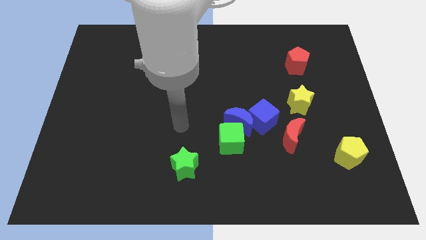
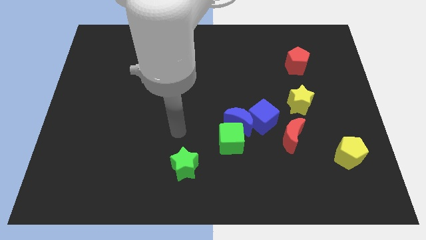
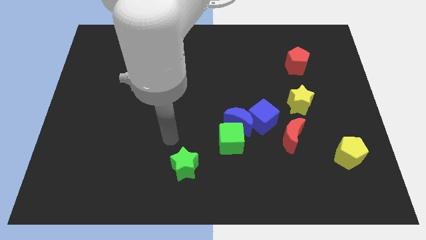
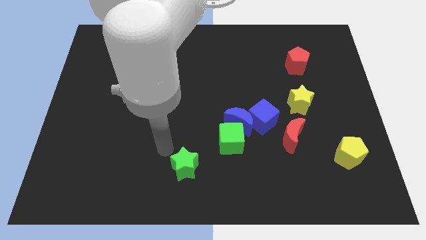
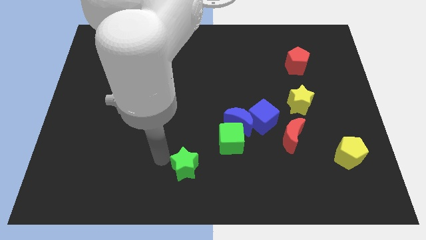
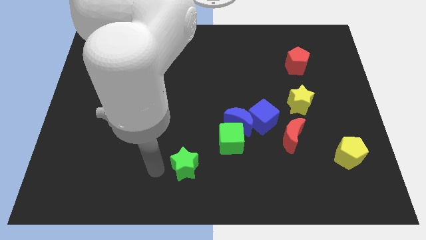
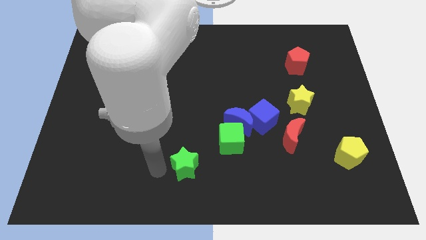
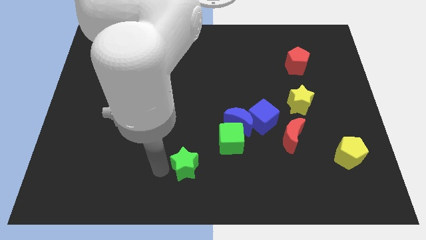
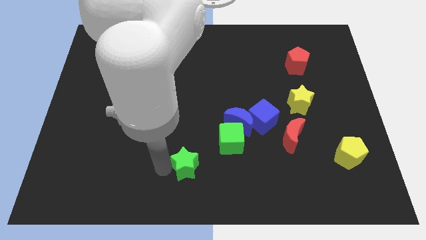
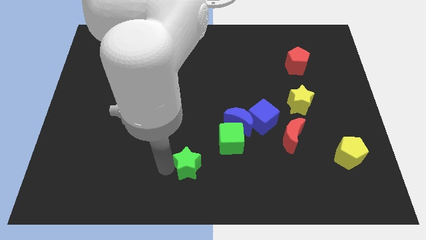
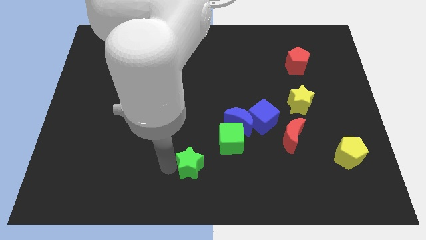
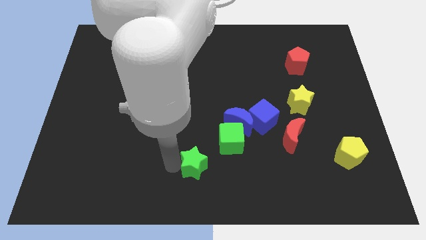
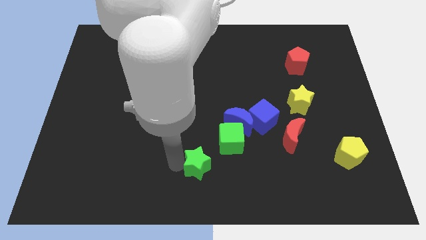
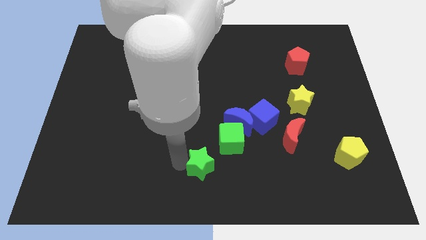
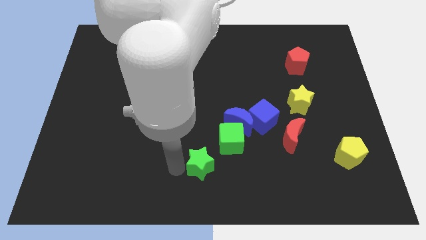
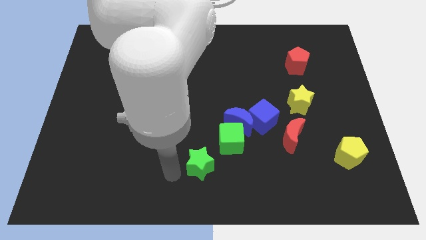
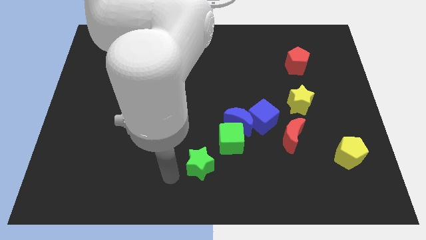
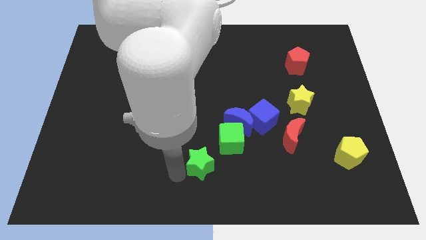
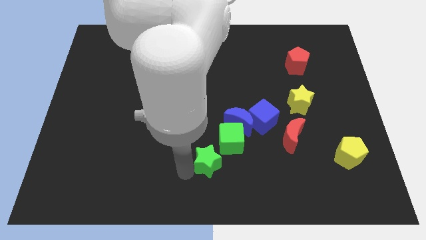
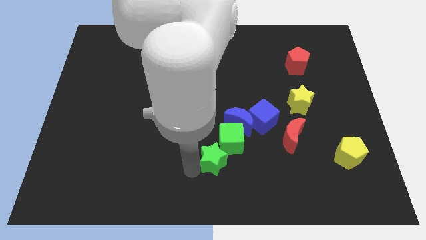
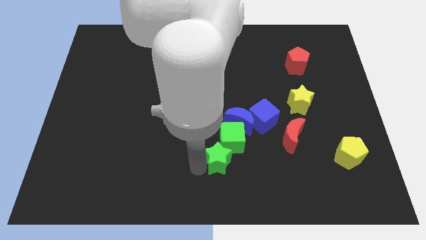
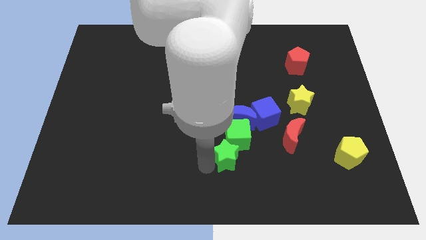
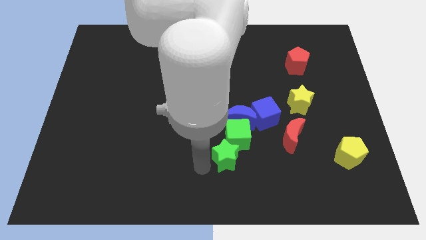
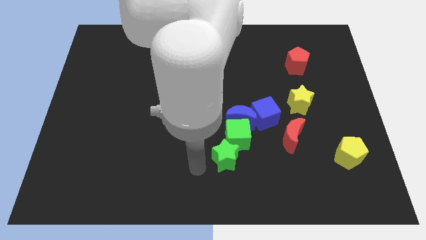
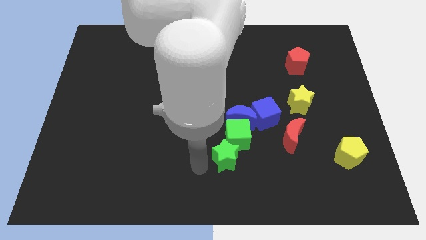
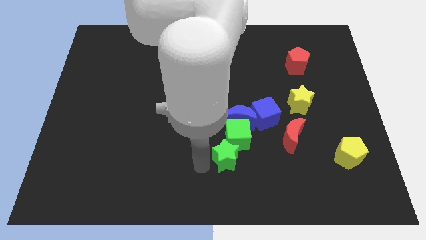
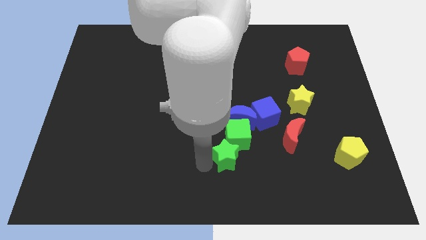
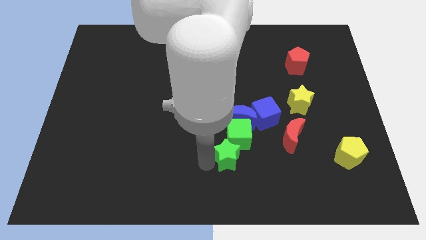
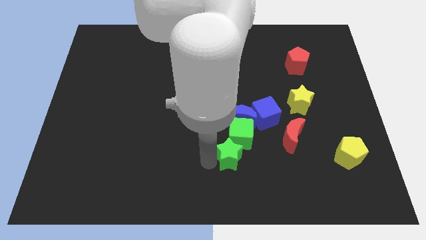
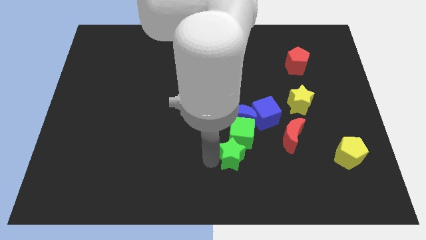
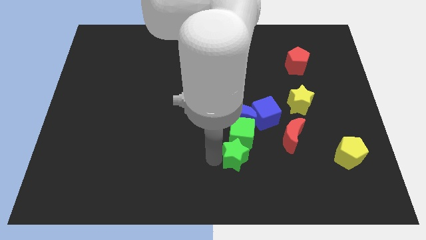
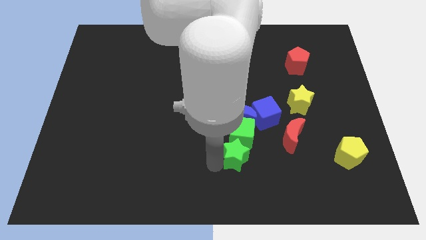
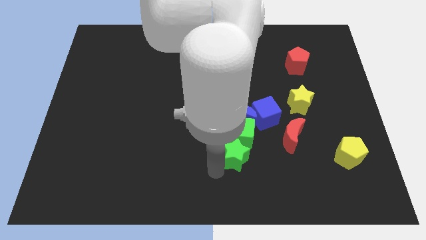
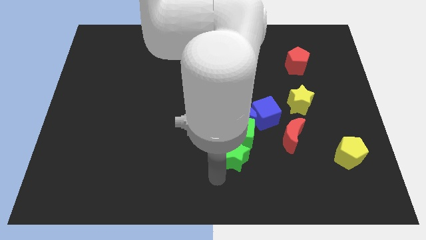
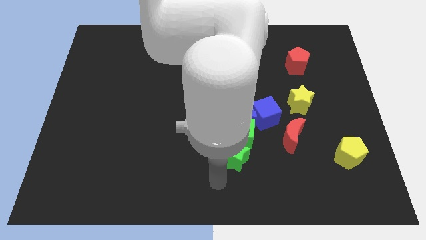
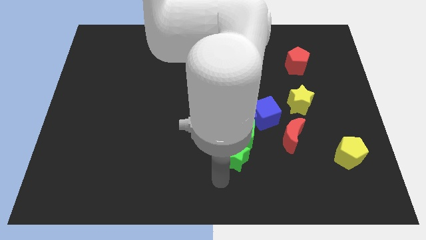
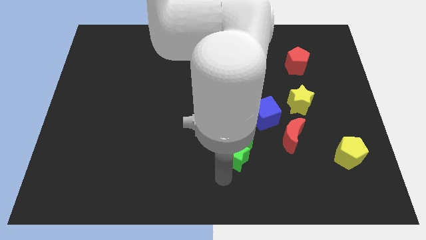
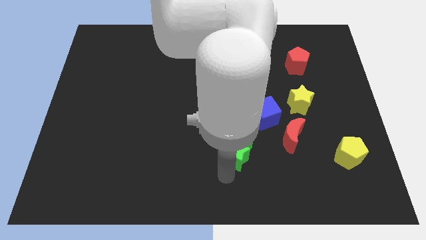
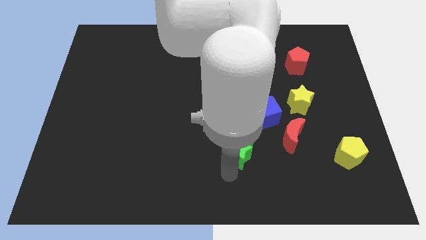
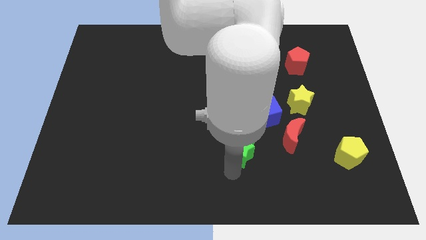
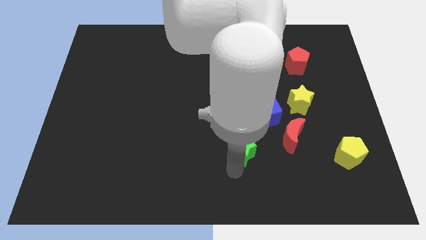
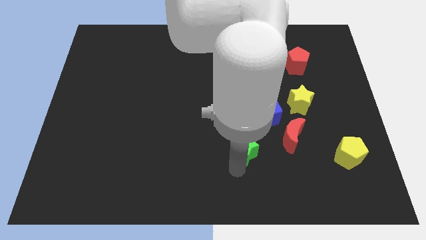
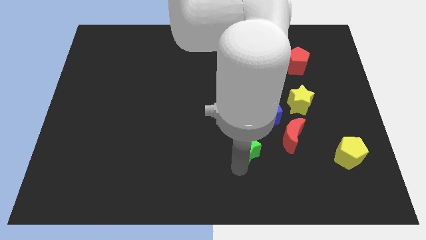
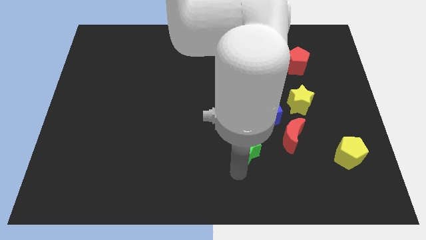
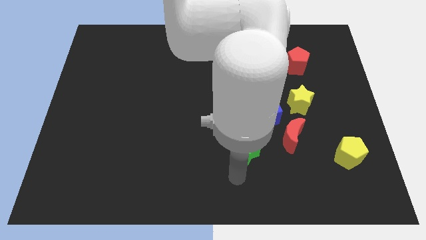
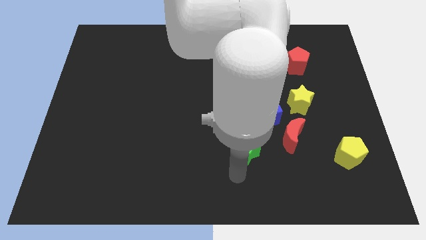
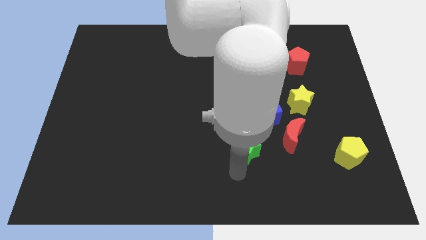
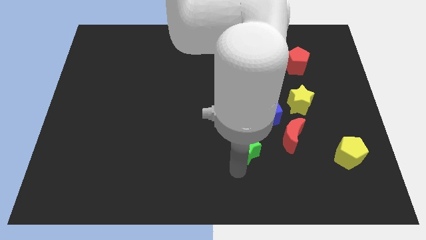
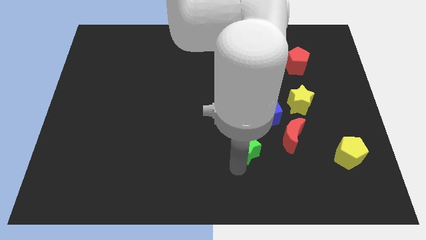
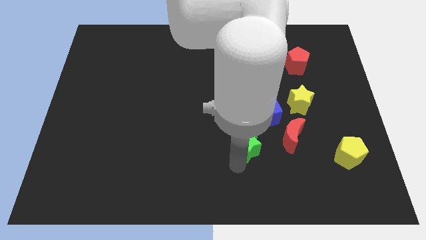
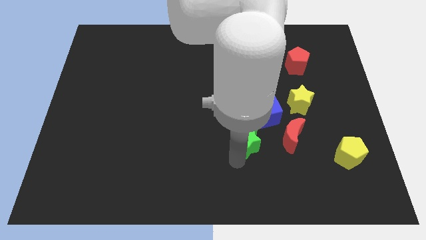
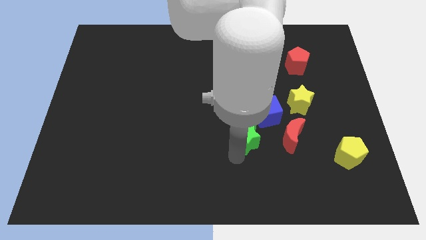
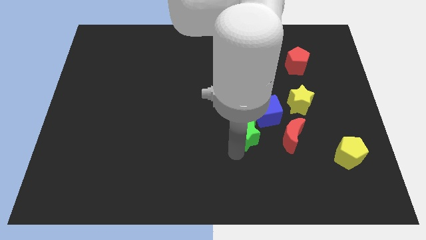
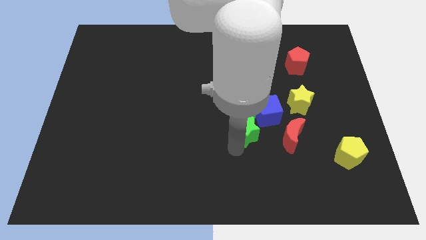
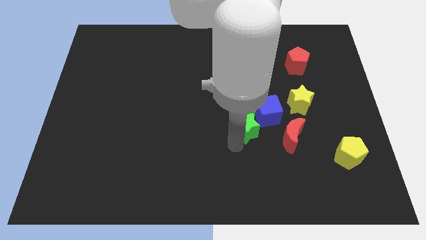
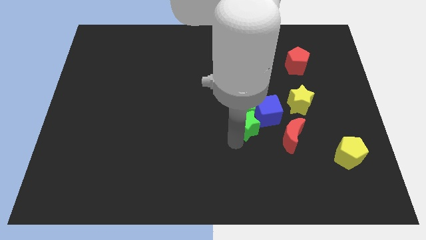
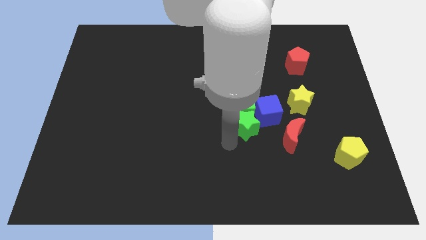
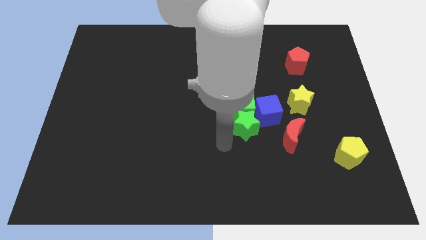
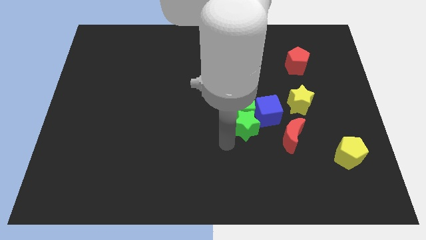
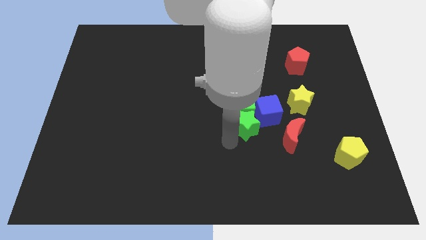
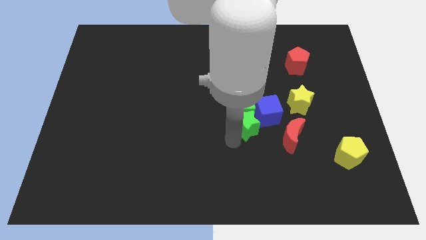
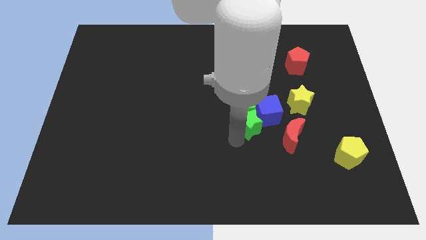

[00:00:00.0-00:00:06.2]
push the green star next to the blue cube

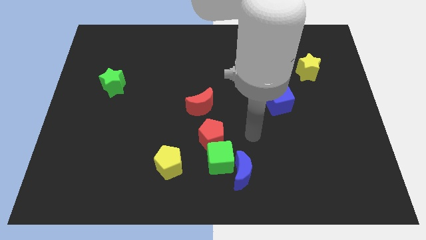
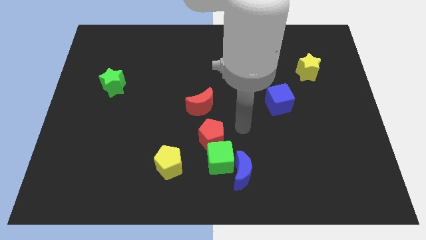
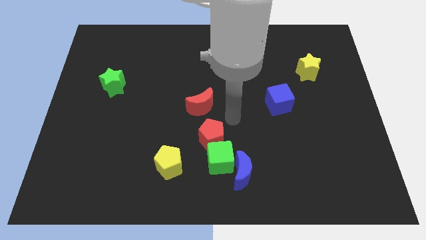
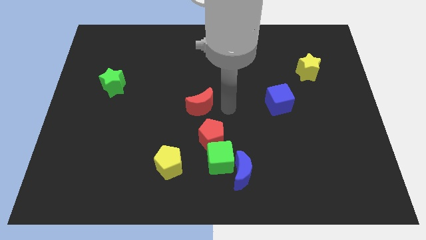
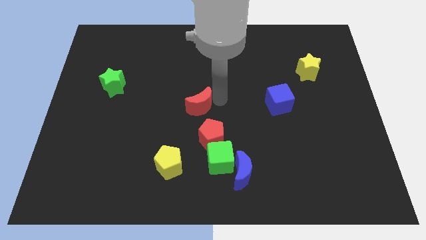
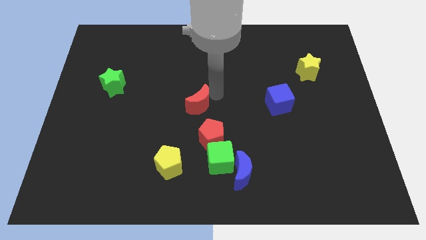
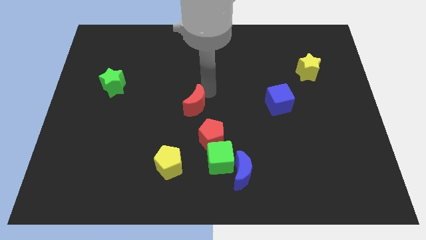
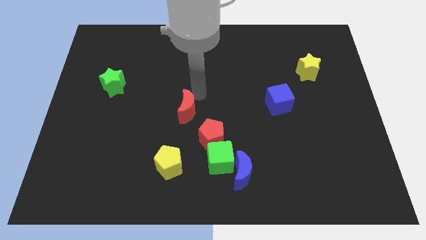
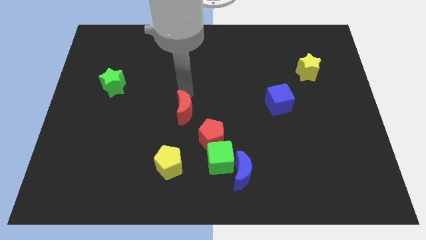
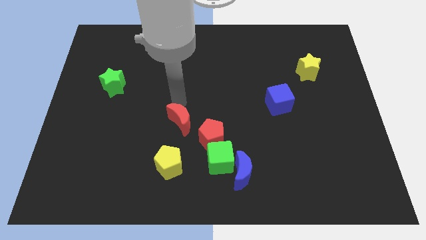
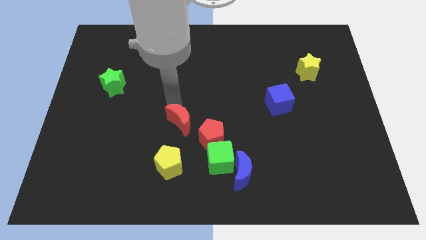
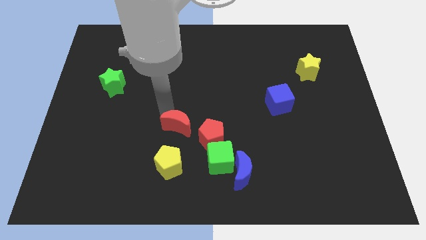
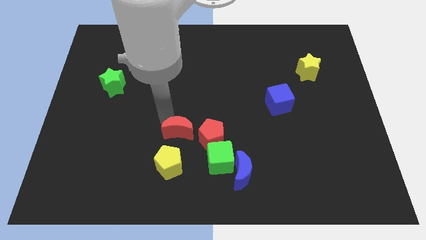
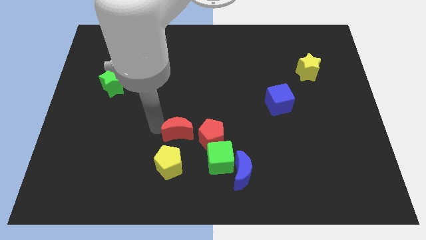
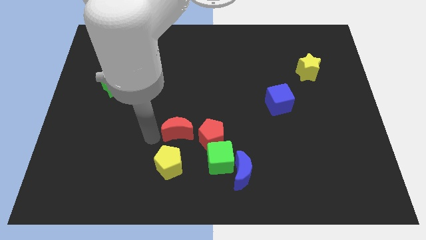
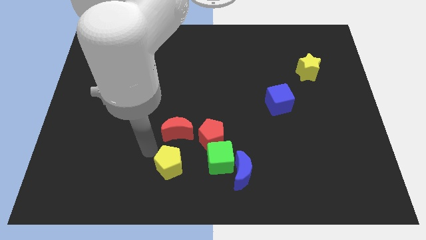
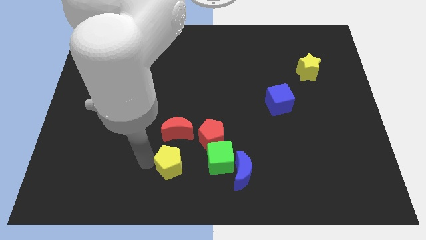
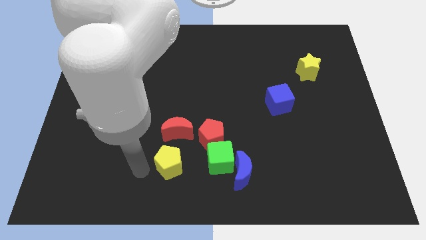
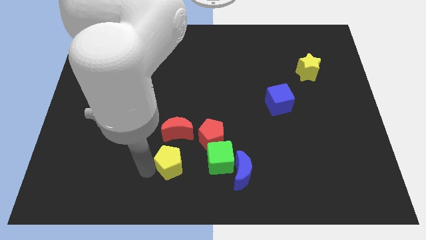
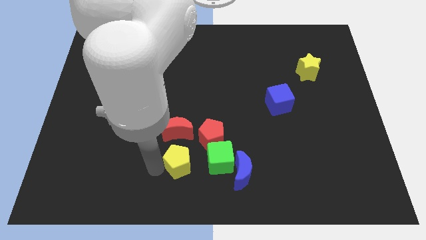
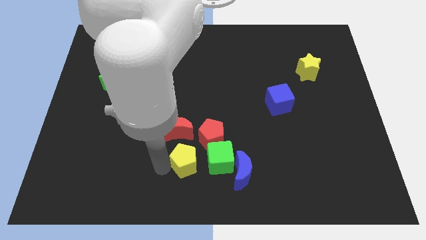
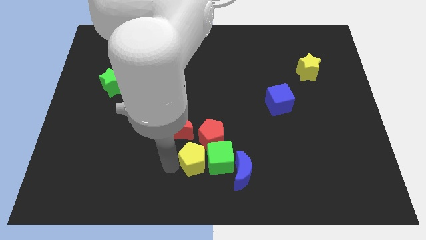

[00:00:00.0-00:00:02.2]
put the yellow pentagon next to the green cube
